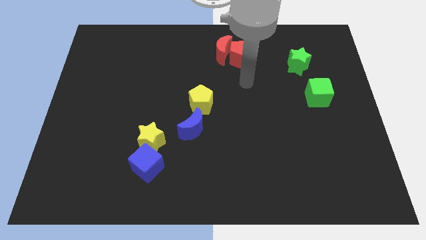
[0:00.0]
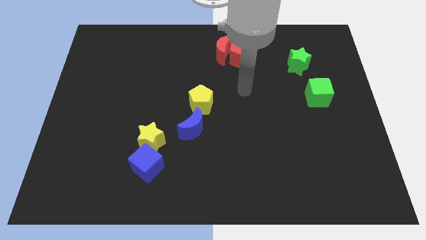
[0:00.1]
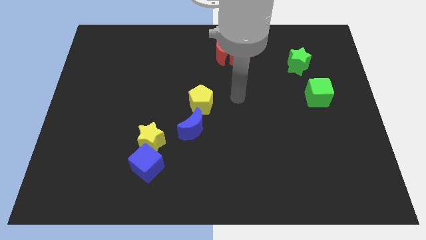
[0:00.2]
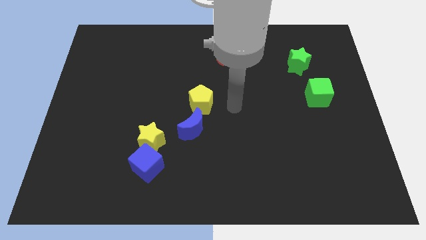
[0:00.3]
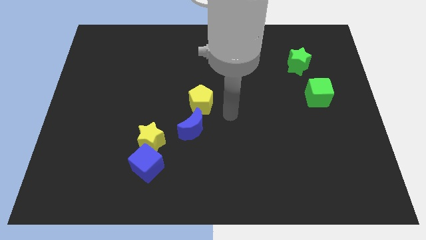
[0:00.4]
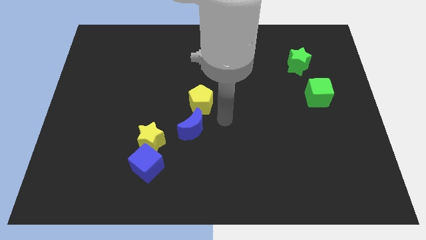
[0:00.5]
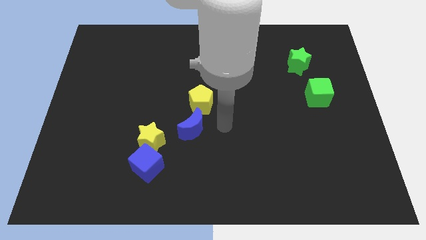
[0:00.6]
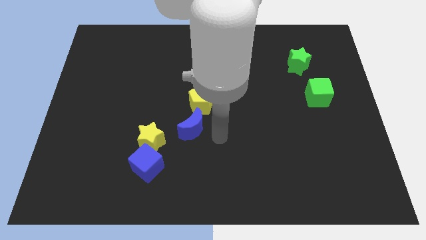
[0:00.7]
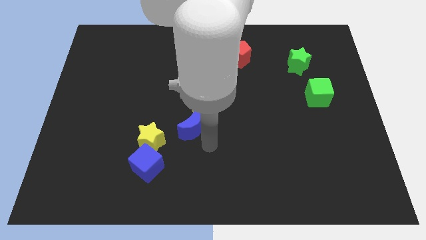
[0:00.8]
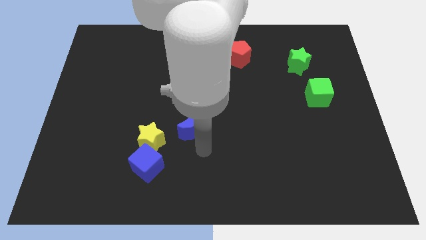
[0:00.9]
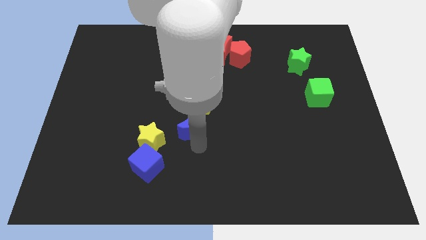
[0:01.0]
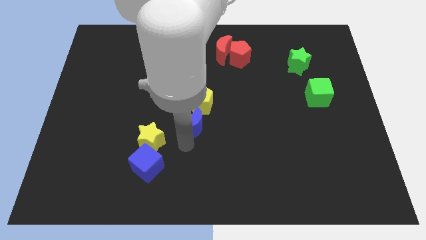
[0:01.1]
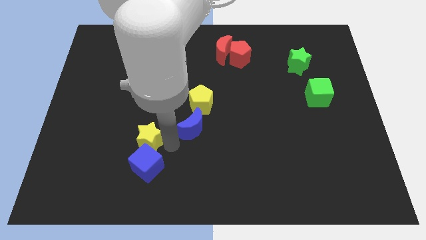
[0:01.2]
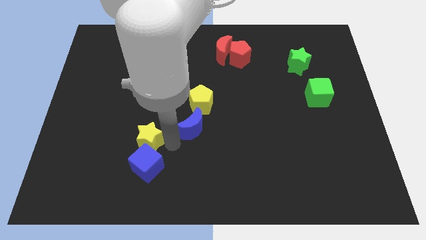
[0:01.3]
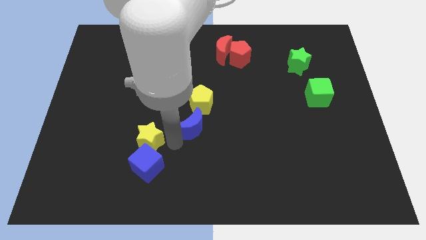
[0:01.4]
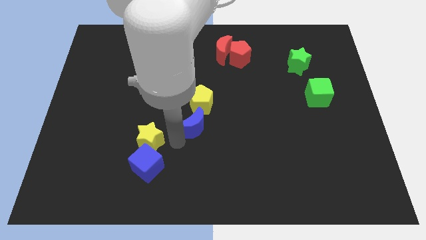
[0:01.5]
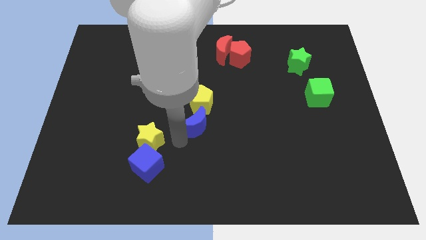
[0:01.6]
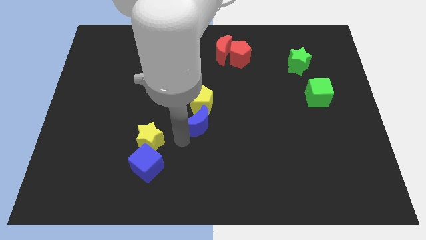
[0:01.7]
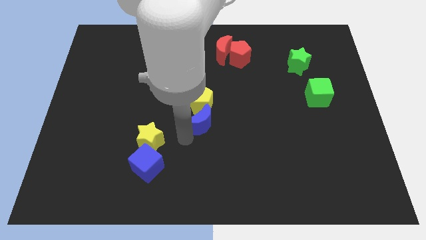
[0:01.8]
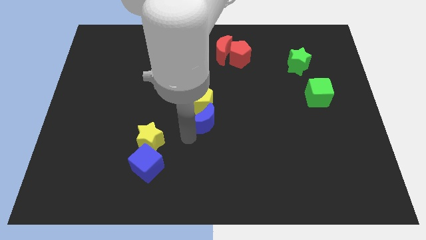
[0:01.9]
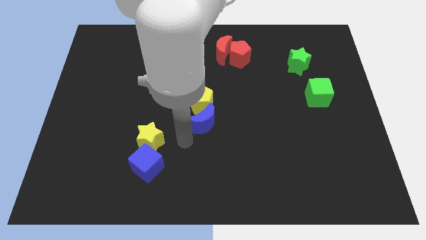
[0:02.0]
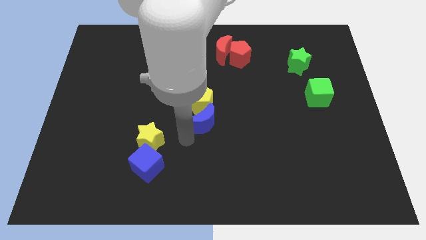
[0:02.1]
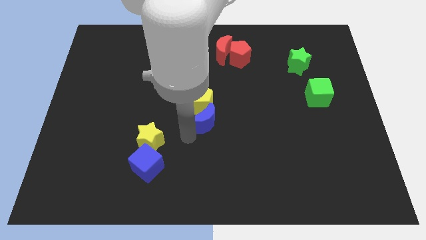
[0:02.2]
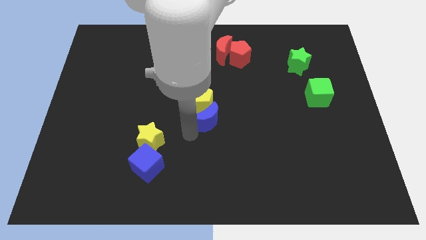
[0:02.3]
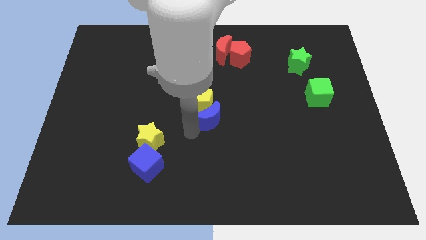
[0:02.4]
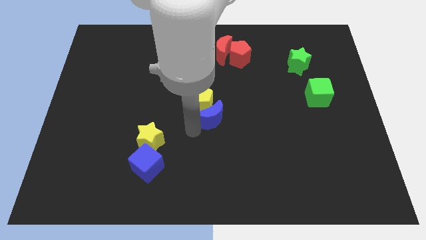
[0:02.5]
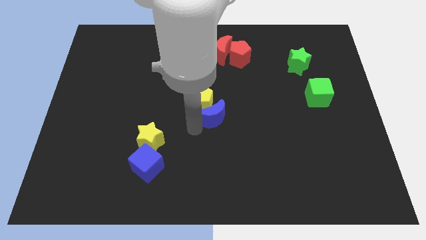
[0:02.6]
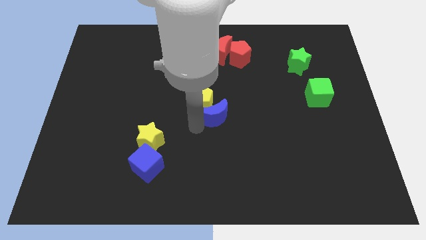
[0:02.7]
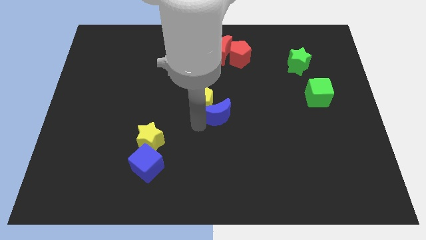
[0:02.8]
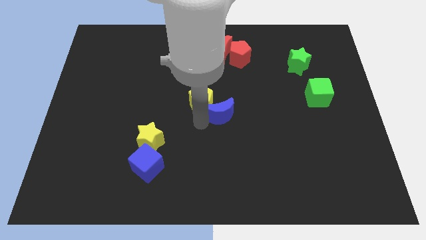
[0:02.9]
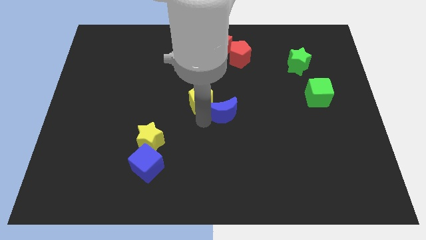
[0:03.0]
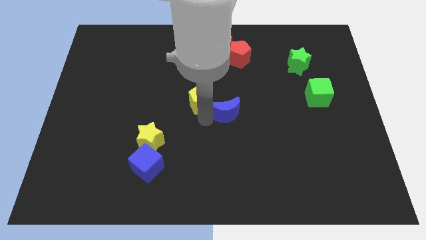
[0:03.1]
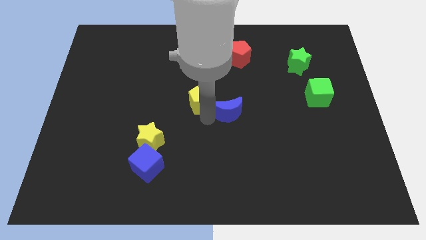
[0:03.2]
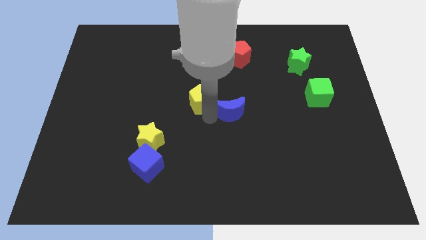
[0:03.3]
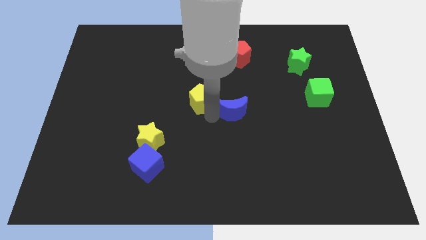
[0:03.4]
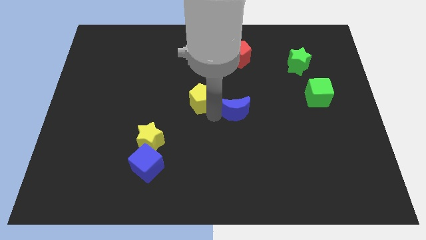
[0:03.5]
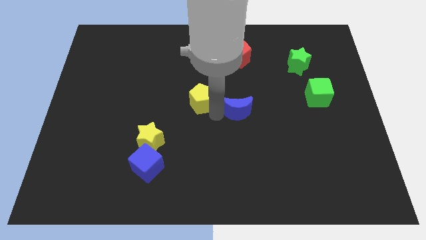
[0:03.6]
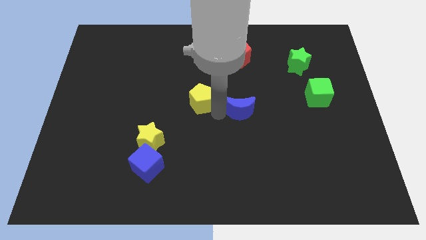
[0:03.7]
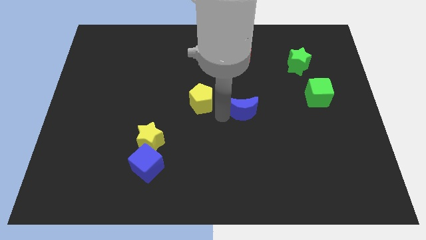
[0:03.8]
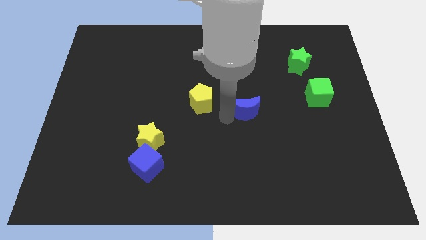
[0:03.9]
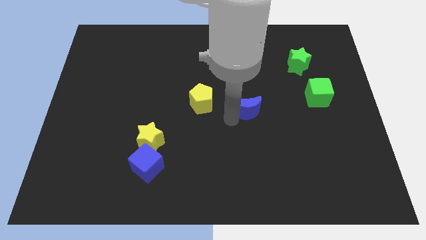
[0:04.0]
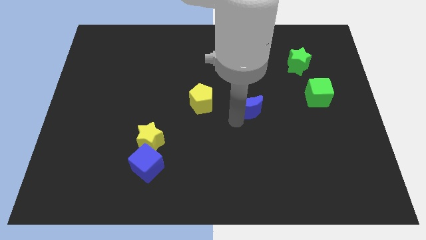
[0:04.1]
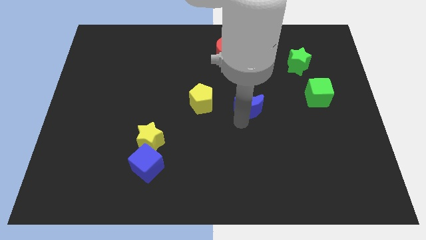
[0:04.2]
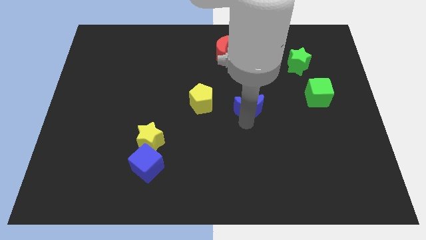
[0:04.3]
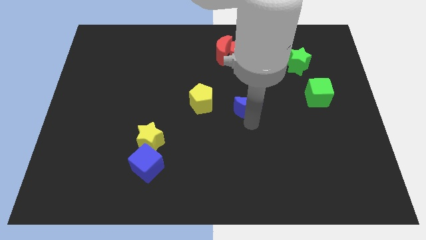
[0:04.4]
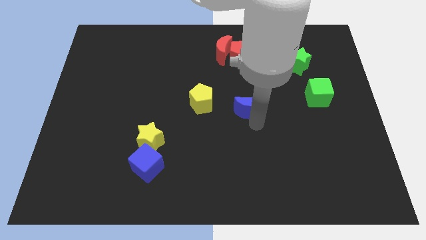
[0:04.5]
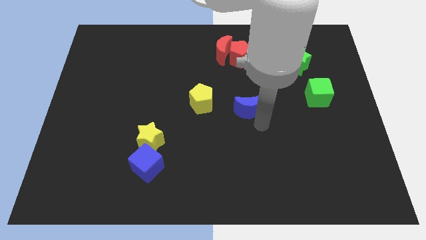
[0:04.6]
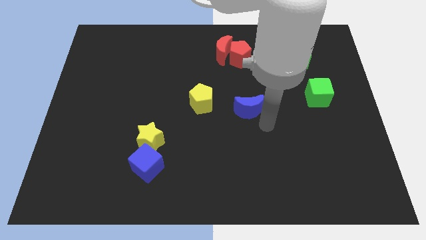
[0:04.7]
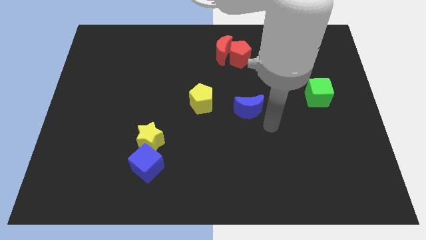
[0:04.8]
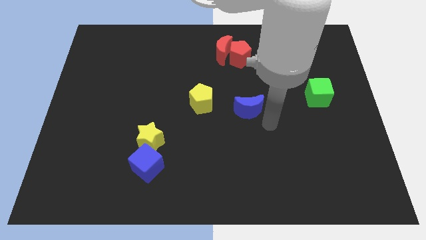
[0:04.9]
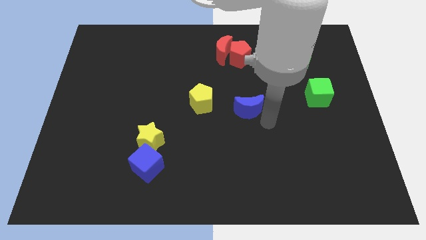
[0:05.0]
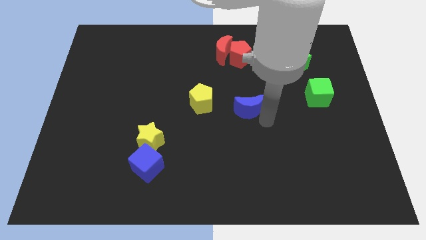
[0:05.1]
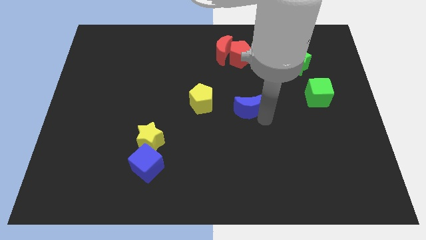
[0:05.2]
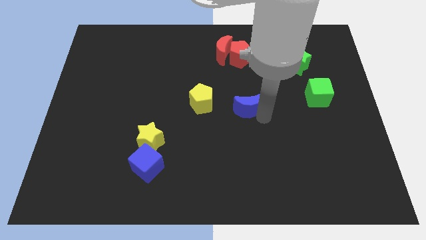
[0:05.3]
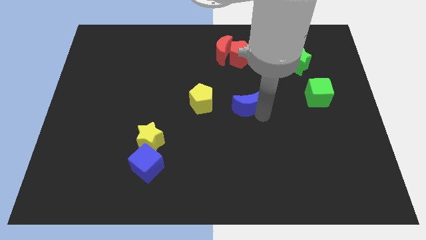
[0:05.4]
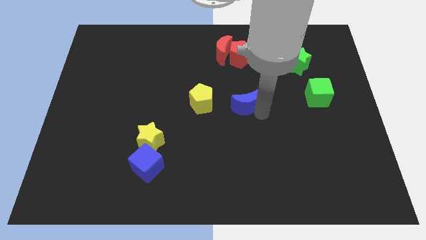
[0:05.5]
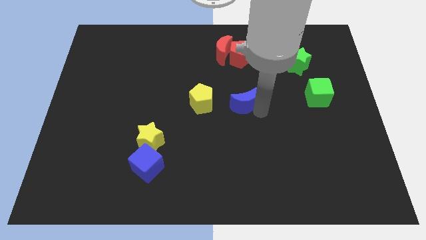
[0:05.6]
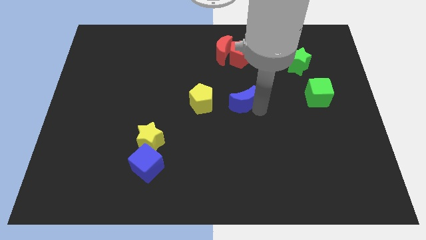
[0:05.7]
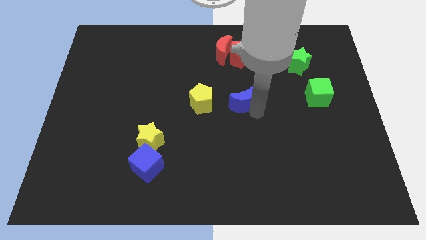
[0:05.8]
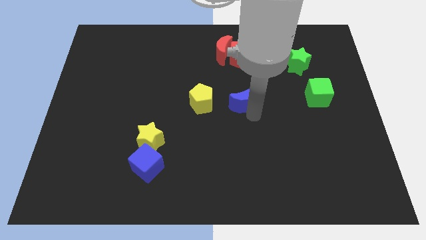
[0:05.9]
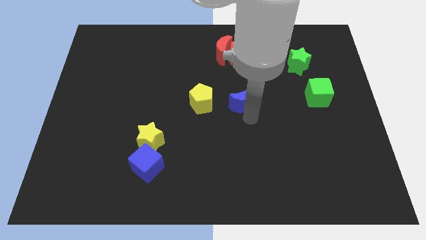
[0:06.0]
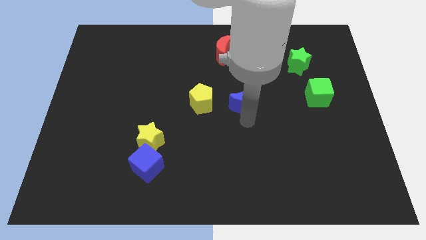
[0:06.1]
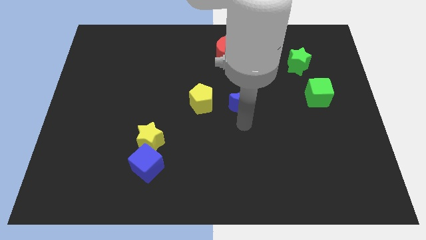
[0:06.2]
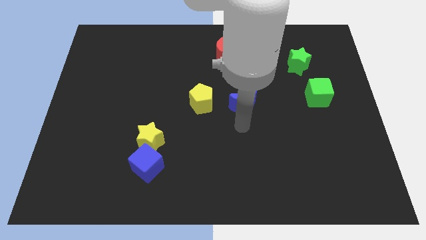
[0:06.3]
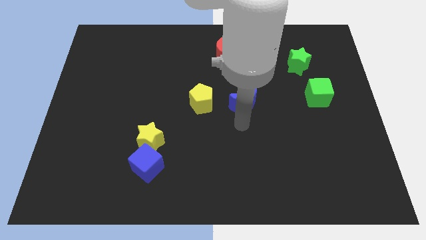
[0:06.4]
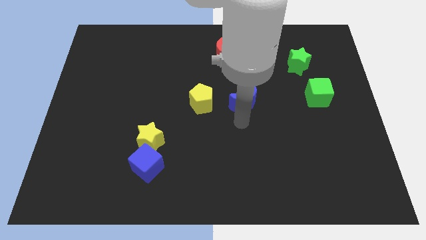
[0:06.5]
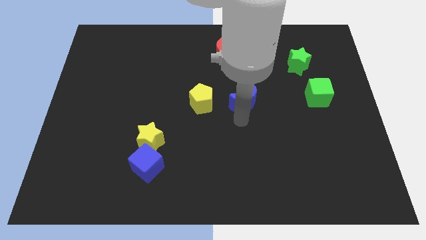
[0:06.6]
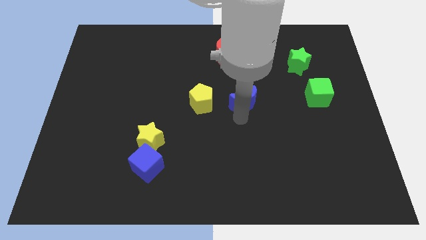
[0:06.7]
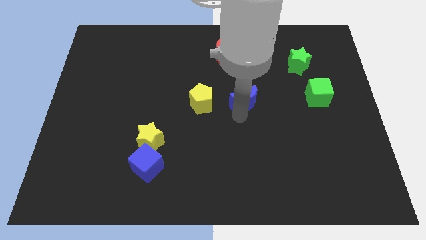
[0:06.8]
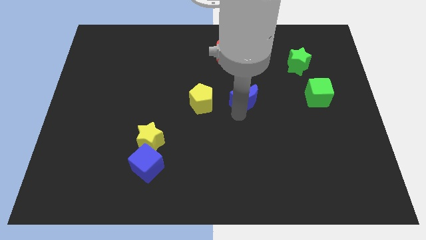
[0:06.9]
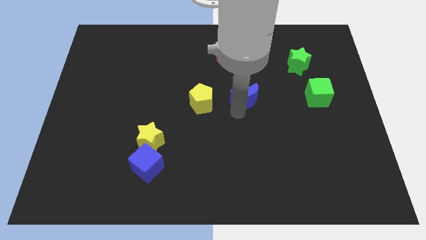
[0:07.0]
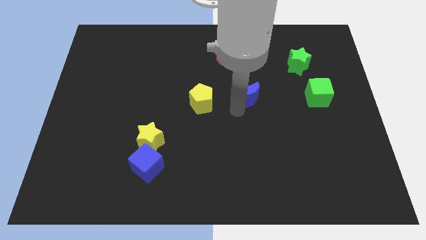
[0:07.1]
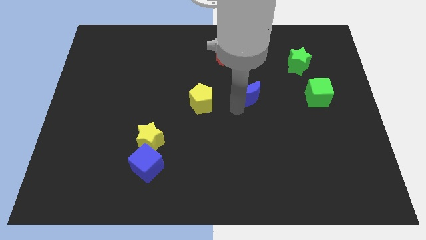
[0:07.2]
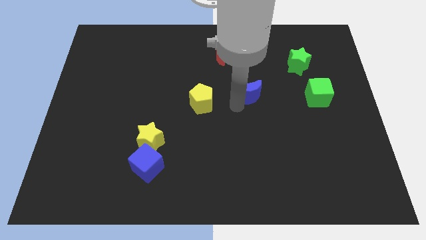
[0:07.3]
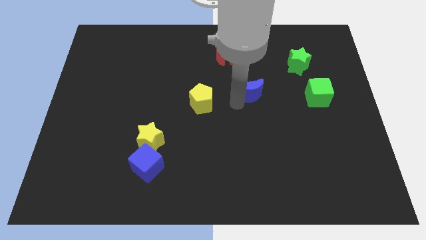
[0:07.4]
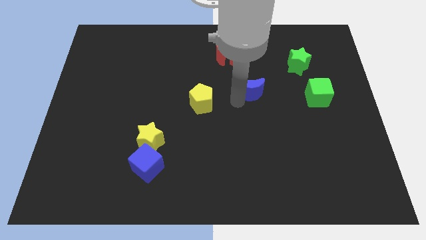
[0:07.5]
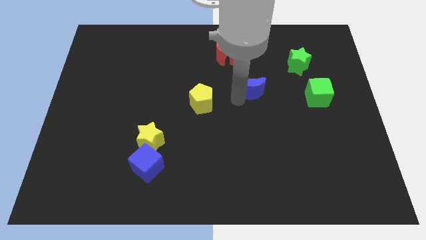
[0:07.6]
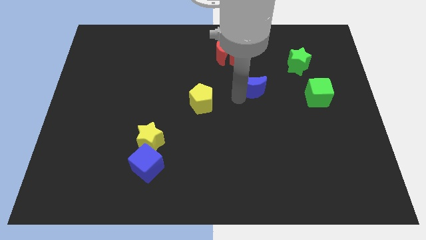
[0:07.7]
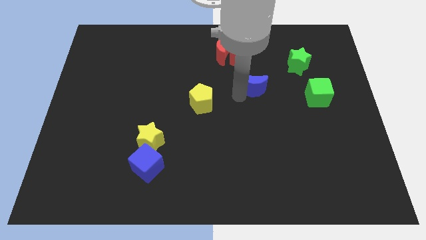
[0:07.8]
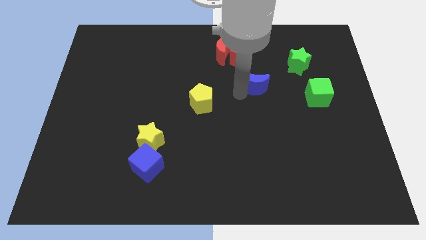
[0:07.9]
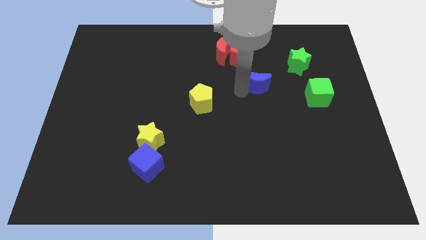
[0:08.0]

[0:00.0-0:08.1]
push the blue moon up and then to the right
